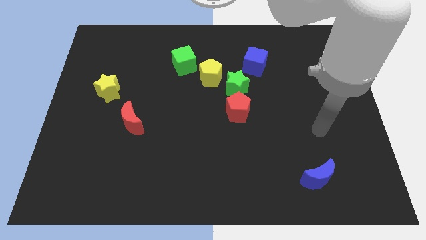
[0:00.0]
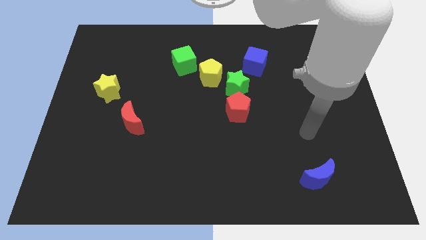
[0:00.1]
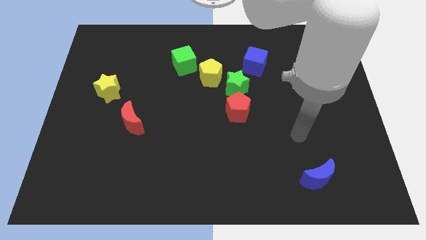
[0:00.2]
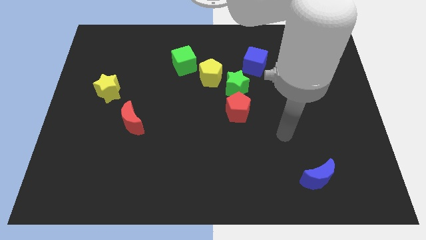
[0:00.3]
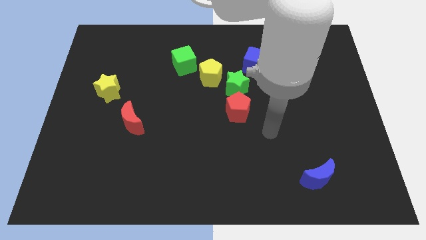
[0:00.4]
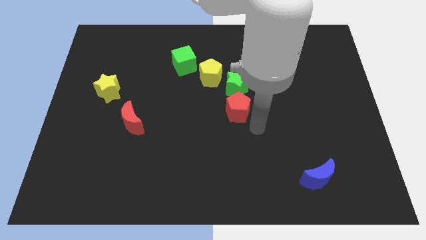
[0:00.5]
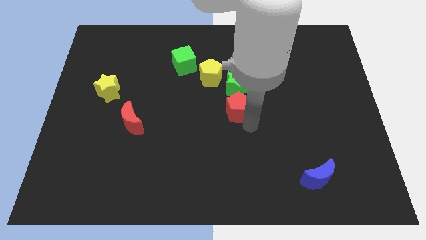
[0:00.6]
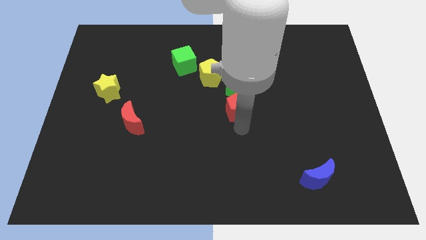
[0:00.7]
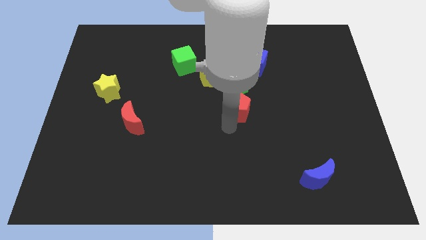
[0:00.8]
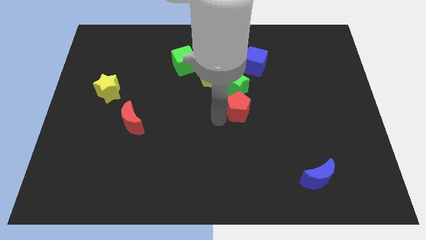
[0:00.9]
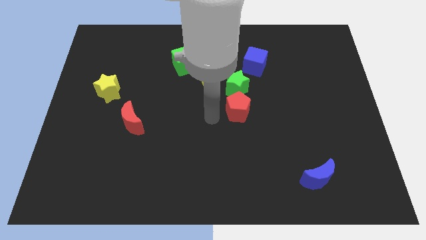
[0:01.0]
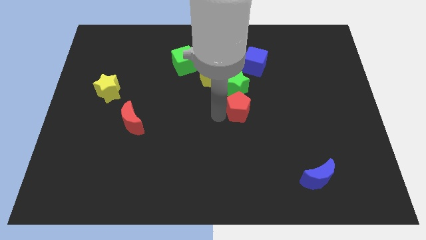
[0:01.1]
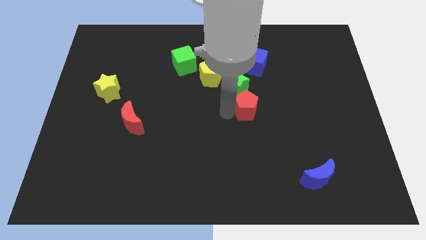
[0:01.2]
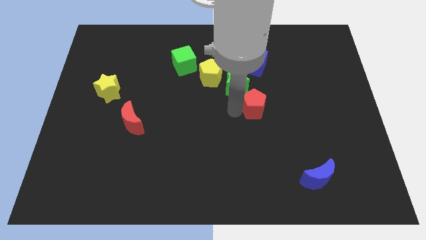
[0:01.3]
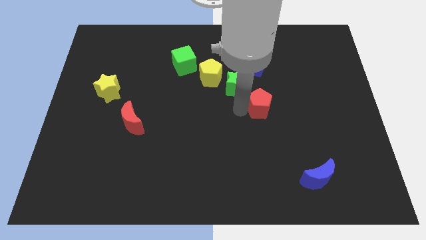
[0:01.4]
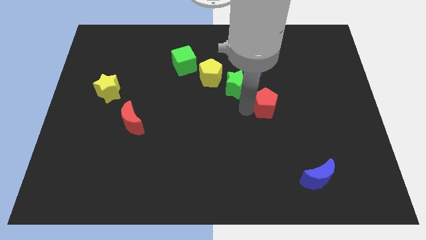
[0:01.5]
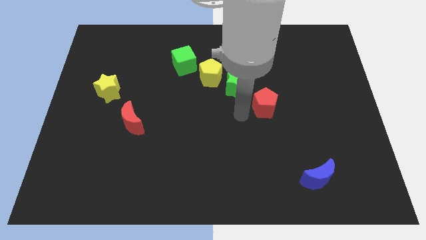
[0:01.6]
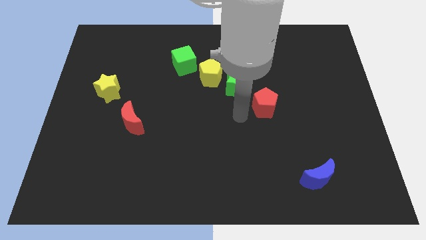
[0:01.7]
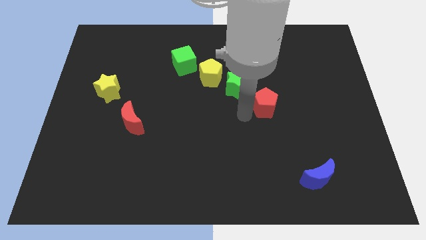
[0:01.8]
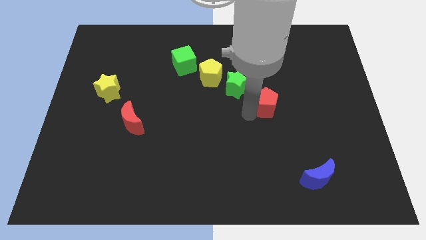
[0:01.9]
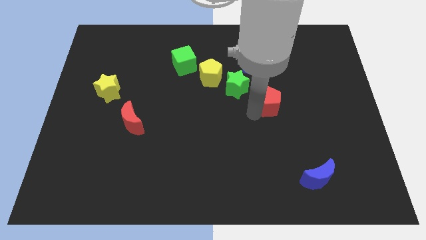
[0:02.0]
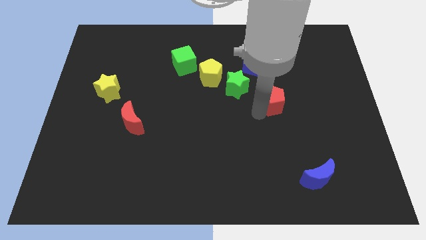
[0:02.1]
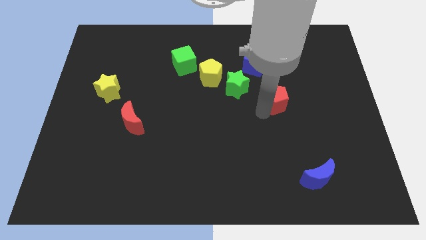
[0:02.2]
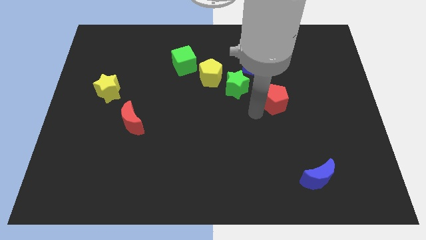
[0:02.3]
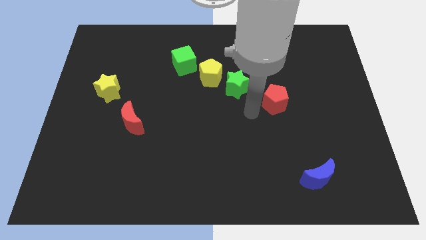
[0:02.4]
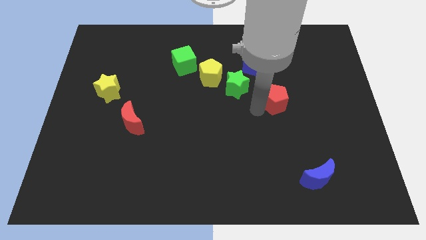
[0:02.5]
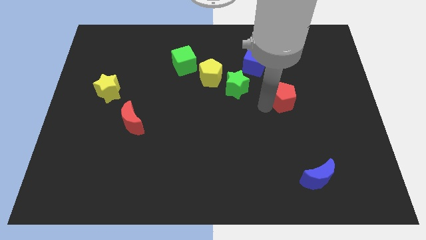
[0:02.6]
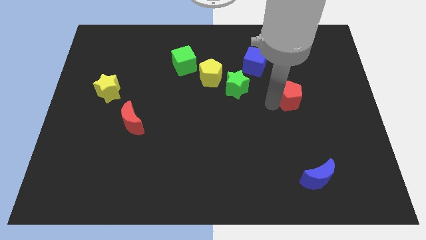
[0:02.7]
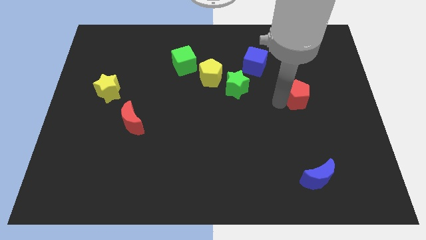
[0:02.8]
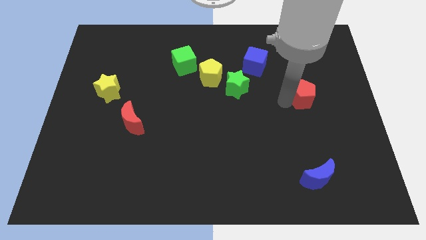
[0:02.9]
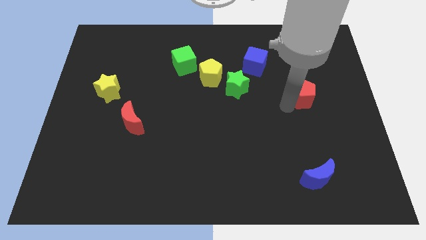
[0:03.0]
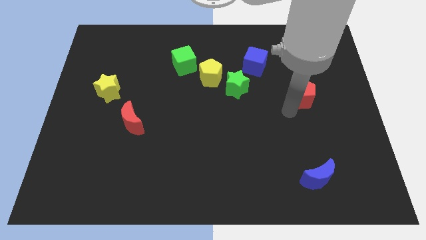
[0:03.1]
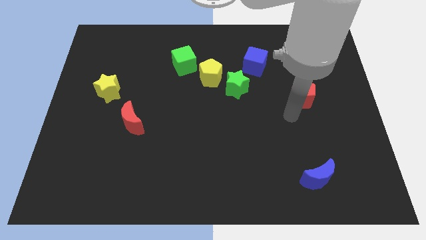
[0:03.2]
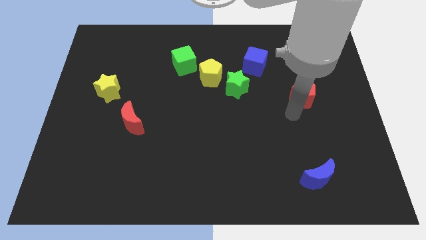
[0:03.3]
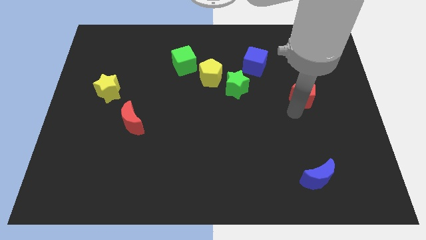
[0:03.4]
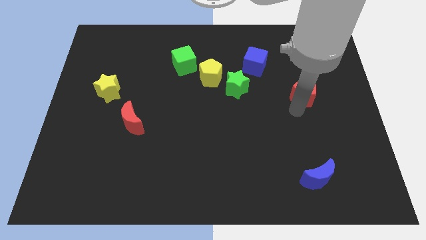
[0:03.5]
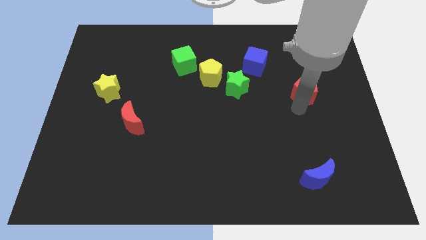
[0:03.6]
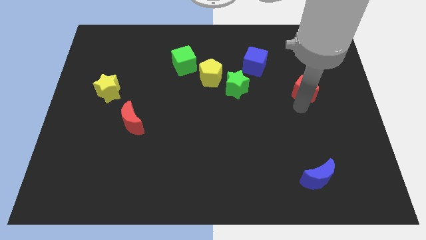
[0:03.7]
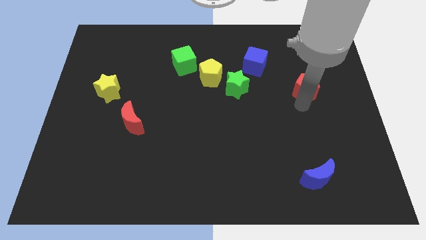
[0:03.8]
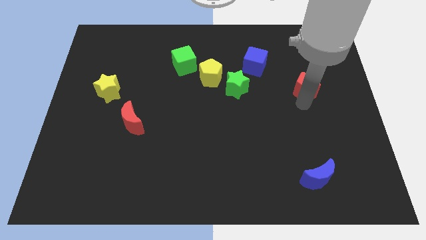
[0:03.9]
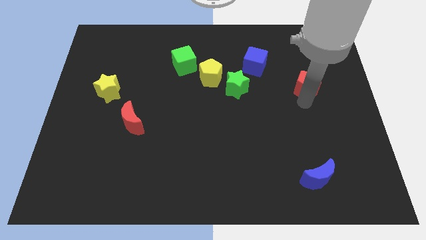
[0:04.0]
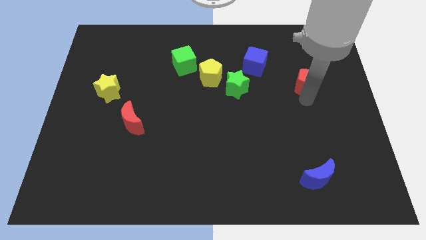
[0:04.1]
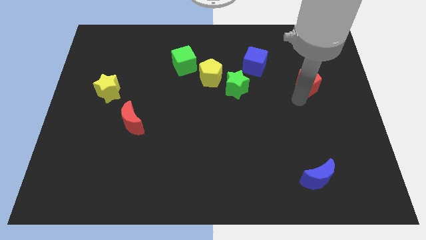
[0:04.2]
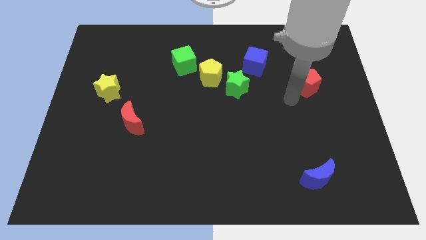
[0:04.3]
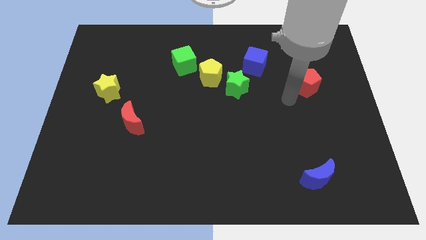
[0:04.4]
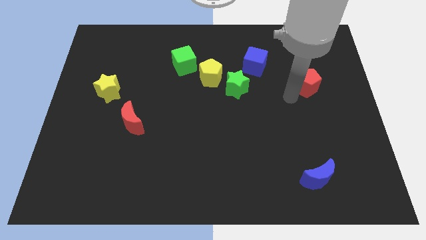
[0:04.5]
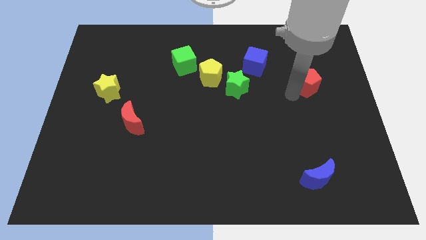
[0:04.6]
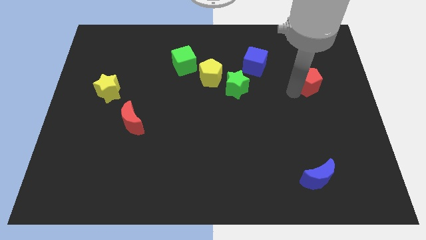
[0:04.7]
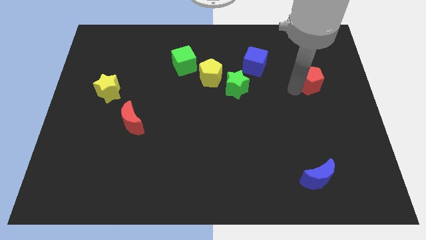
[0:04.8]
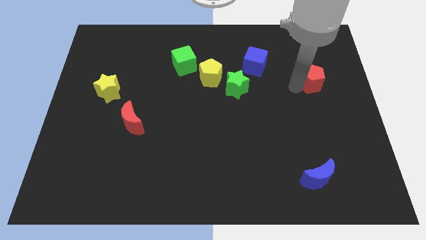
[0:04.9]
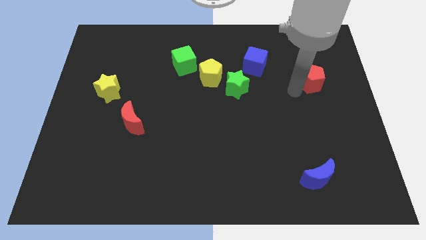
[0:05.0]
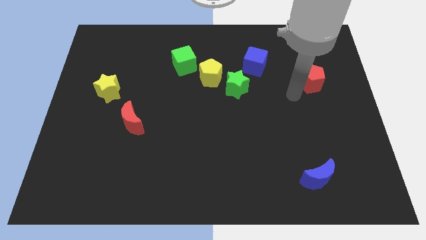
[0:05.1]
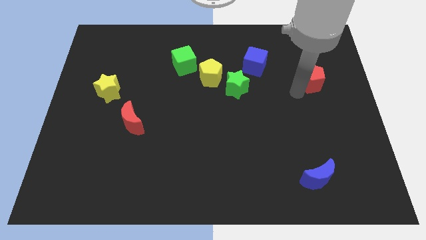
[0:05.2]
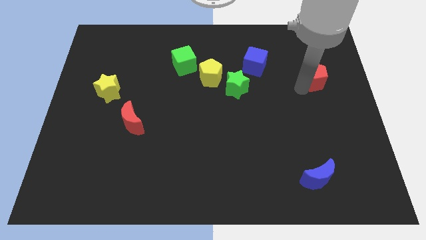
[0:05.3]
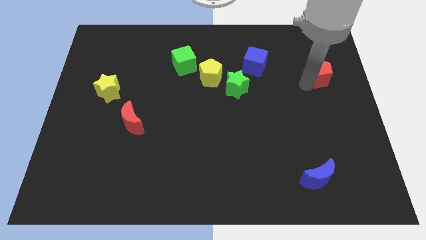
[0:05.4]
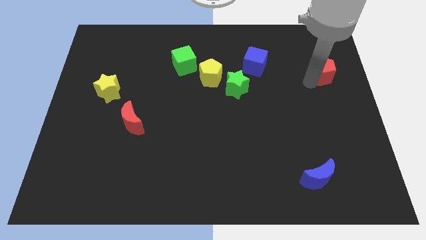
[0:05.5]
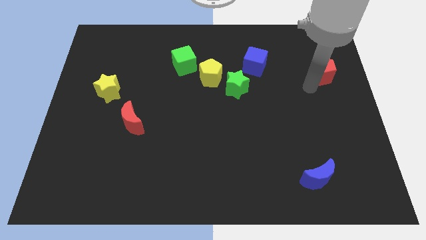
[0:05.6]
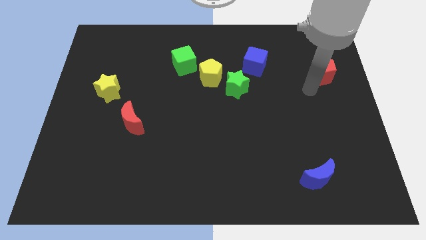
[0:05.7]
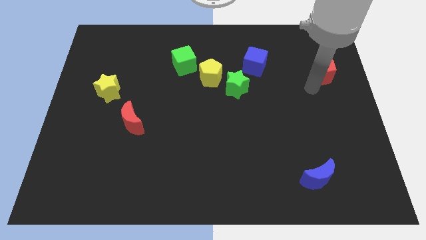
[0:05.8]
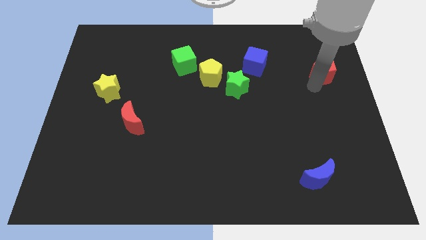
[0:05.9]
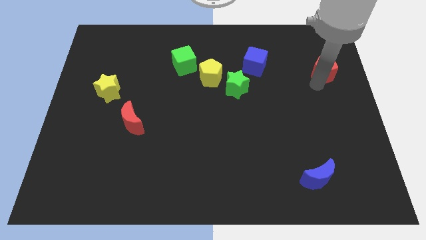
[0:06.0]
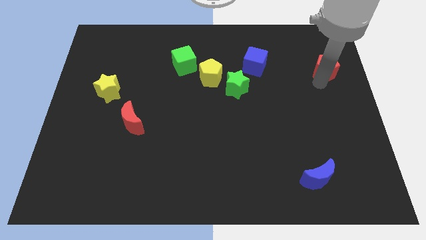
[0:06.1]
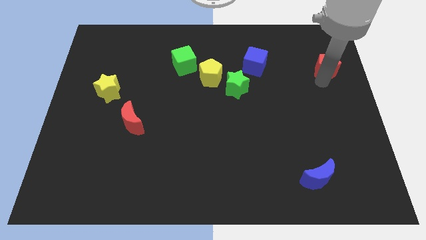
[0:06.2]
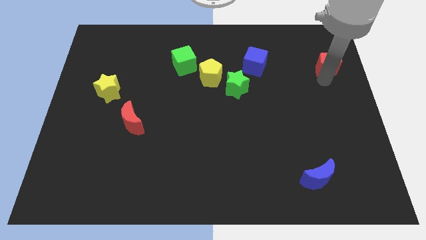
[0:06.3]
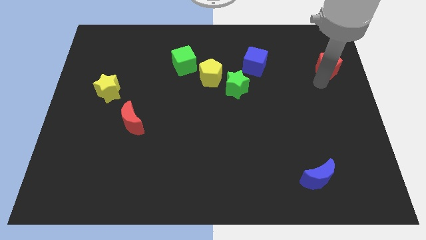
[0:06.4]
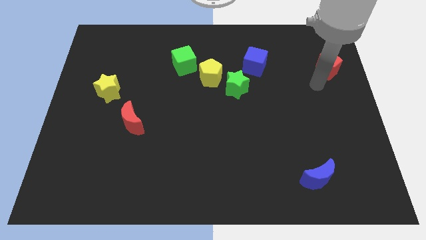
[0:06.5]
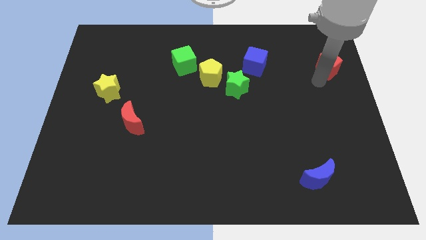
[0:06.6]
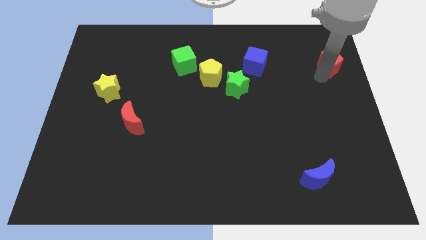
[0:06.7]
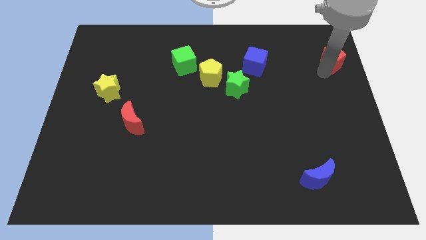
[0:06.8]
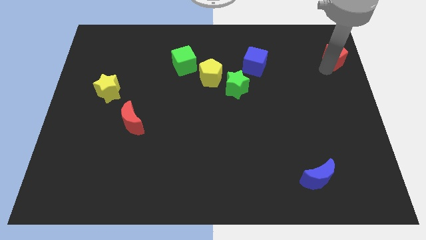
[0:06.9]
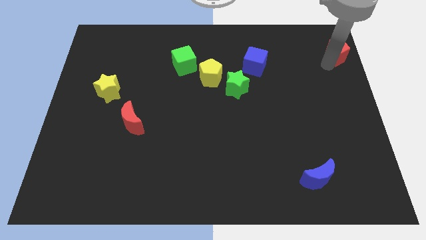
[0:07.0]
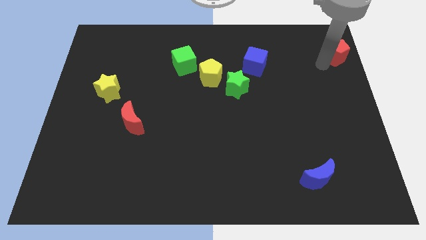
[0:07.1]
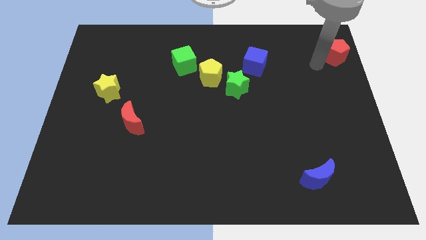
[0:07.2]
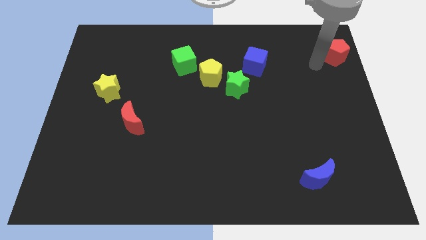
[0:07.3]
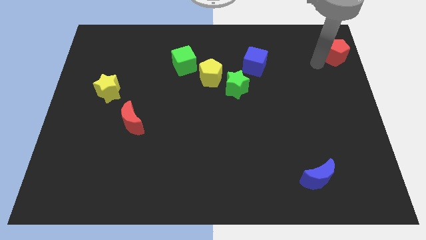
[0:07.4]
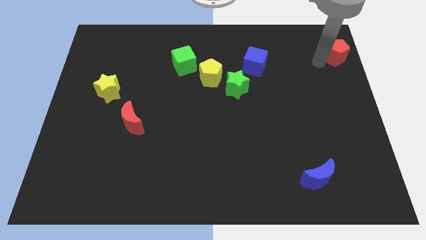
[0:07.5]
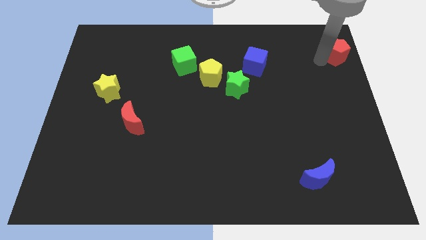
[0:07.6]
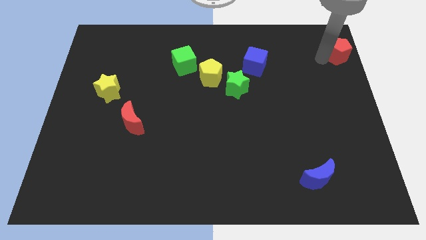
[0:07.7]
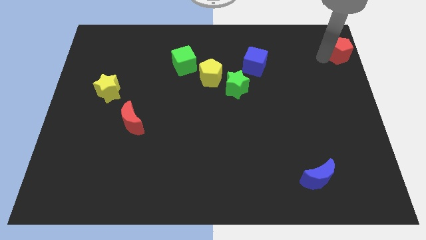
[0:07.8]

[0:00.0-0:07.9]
put the red pentagon to the upper right corner
